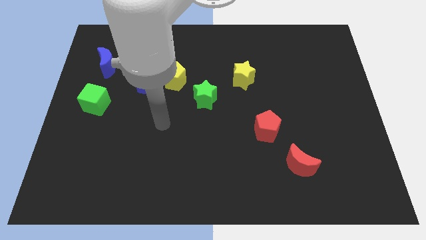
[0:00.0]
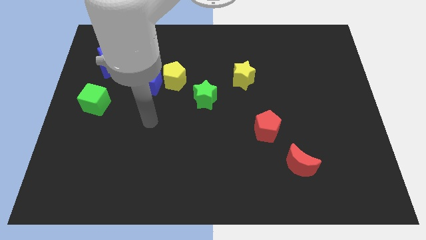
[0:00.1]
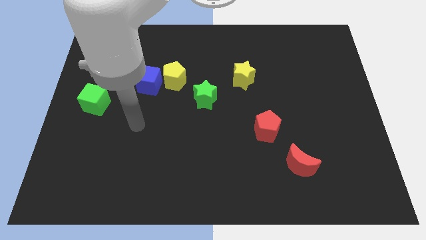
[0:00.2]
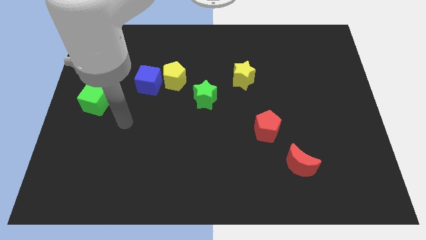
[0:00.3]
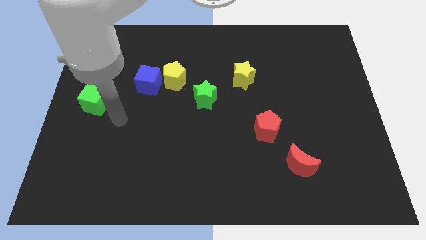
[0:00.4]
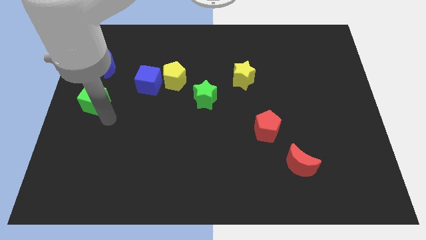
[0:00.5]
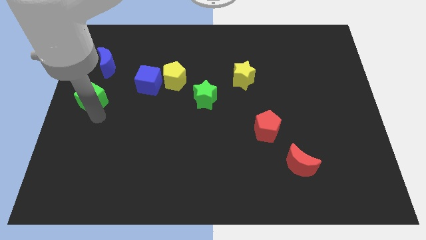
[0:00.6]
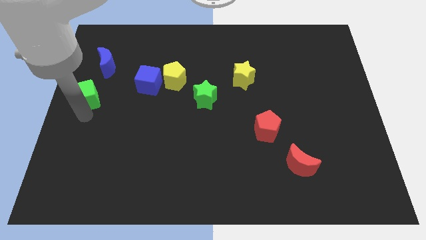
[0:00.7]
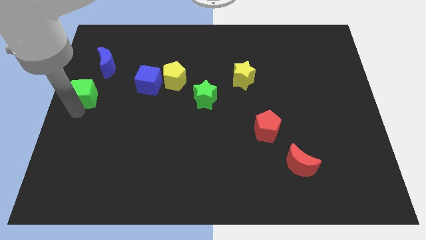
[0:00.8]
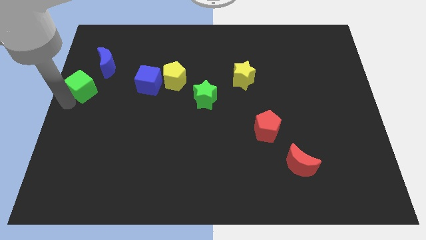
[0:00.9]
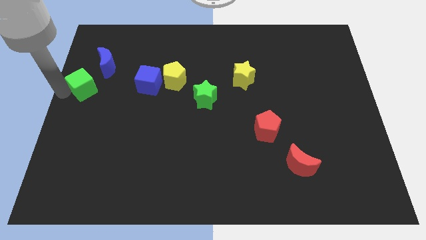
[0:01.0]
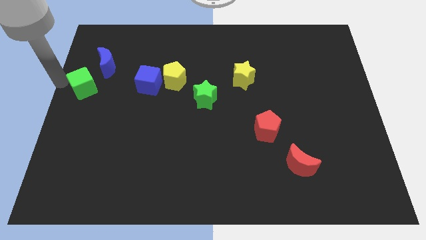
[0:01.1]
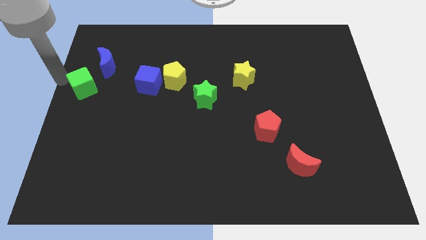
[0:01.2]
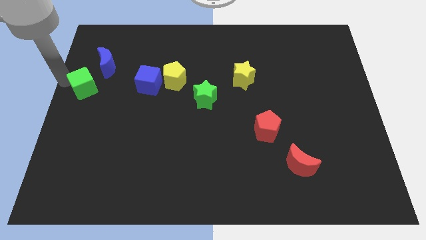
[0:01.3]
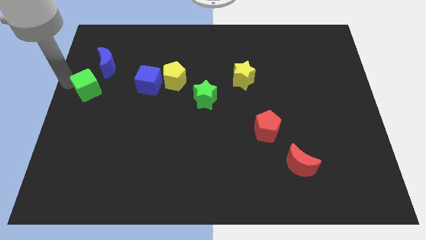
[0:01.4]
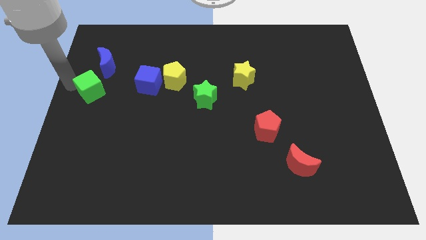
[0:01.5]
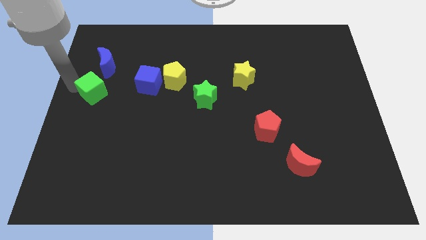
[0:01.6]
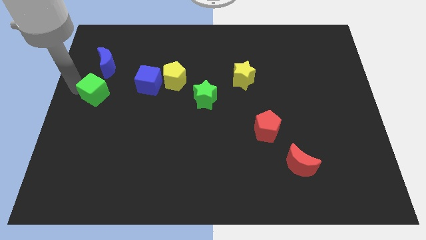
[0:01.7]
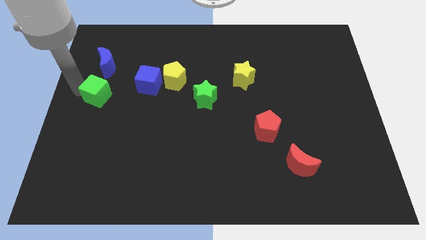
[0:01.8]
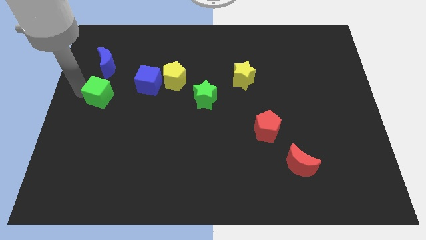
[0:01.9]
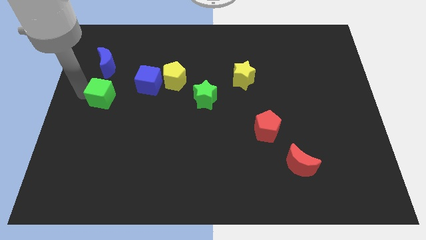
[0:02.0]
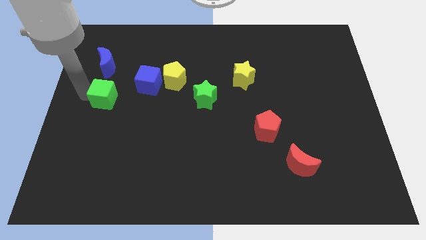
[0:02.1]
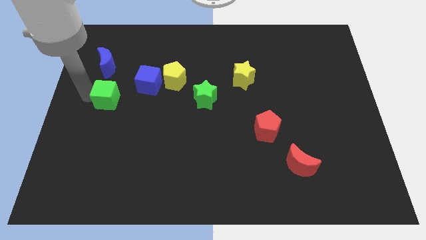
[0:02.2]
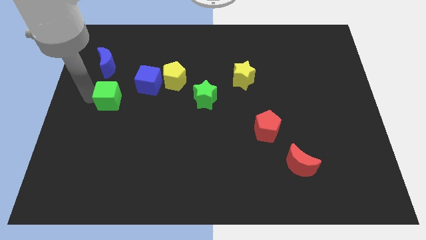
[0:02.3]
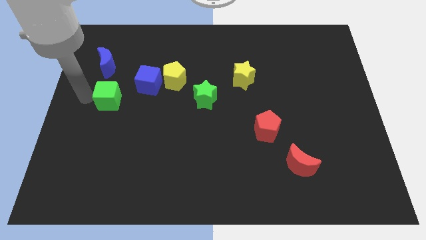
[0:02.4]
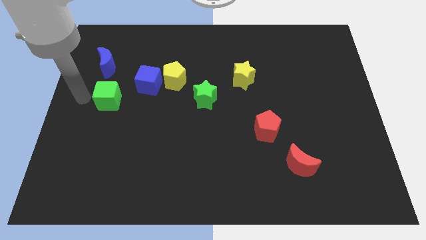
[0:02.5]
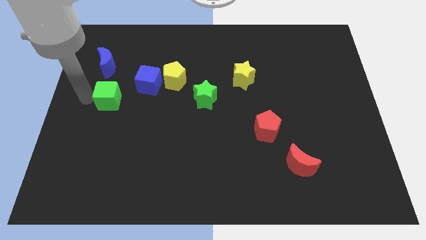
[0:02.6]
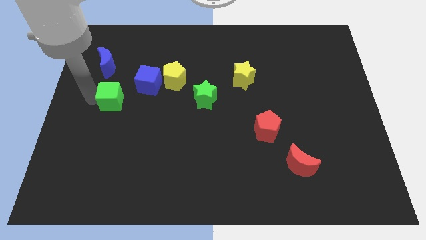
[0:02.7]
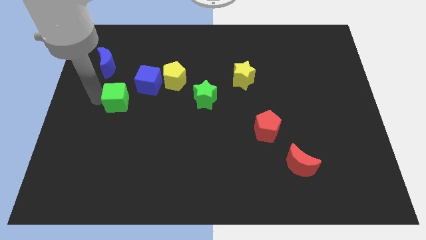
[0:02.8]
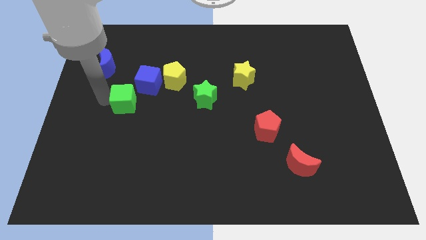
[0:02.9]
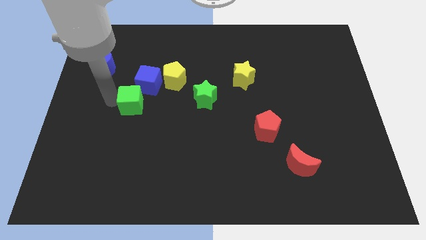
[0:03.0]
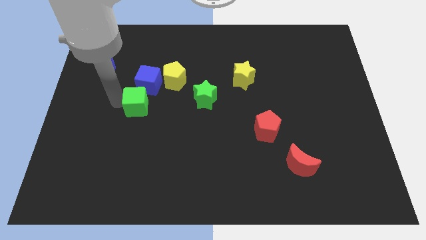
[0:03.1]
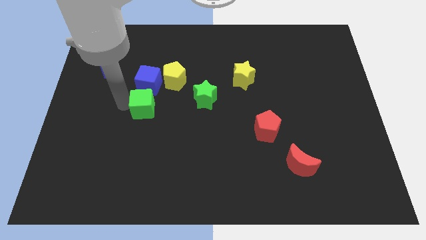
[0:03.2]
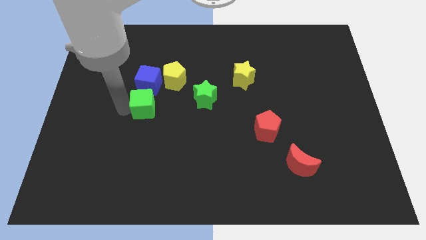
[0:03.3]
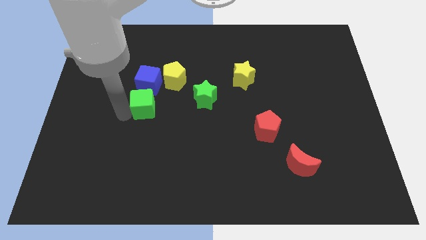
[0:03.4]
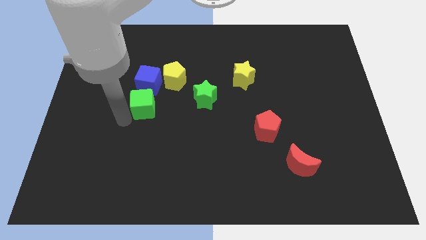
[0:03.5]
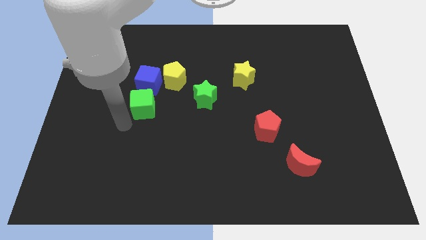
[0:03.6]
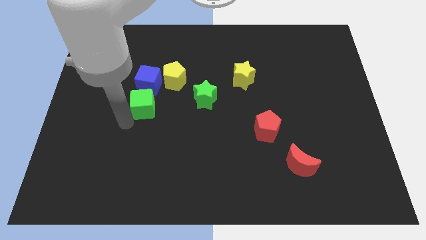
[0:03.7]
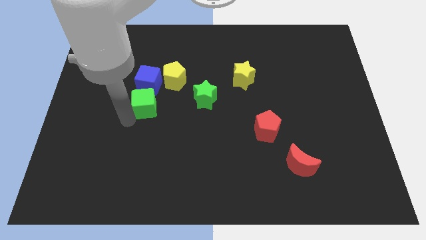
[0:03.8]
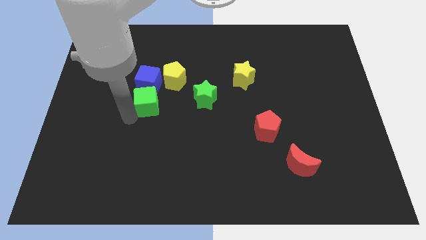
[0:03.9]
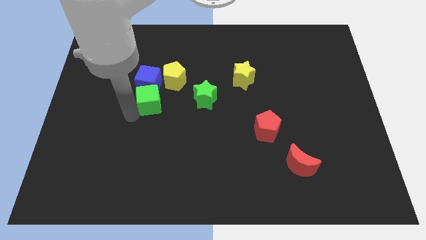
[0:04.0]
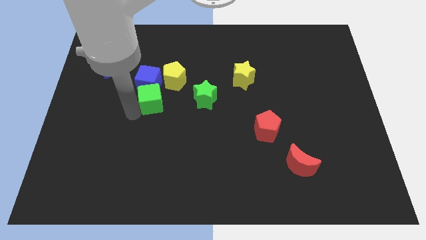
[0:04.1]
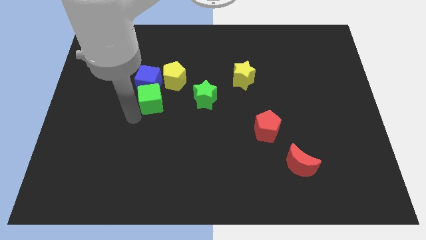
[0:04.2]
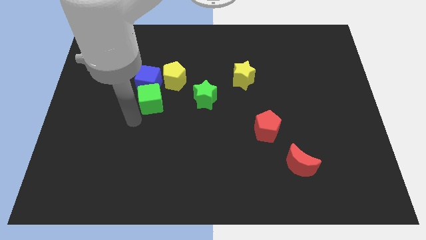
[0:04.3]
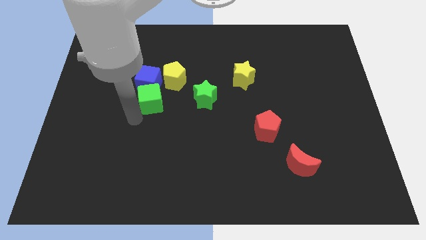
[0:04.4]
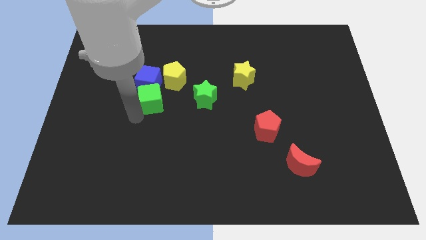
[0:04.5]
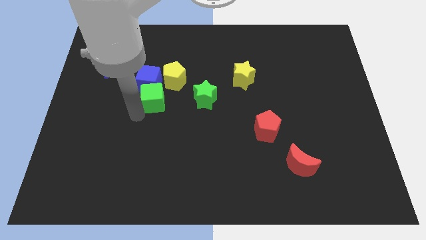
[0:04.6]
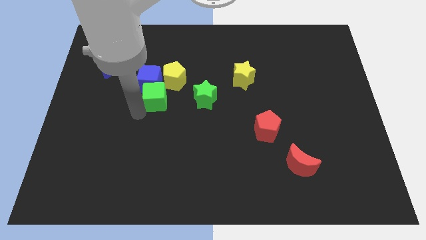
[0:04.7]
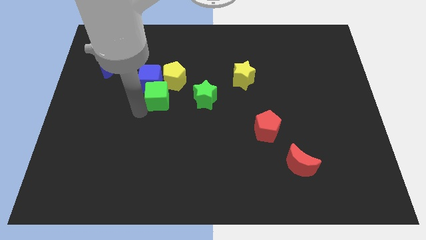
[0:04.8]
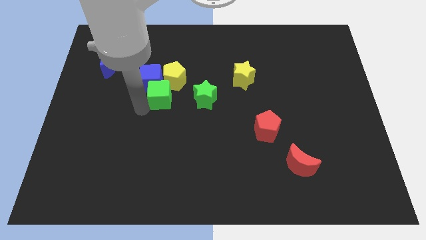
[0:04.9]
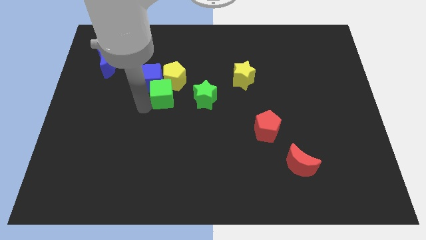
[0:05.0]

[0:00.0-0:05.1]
push the green cube to the yellow pentagon

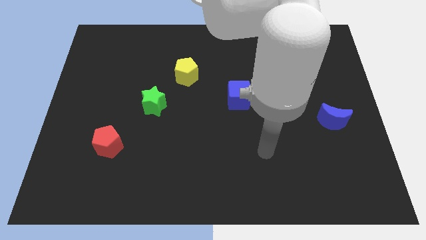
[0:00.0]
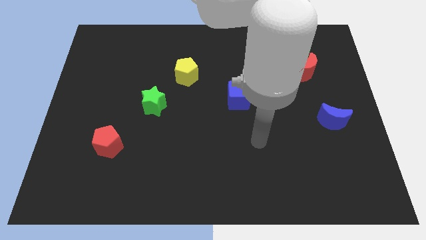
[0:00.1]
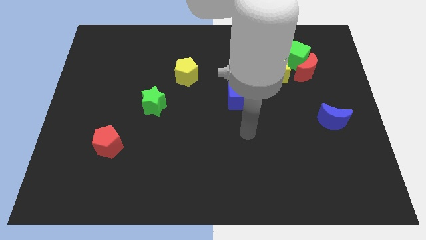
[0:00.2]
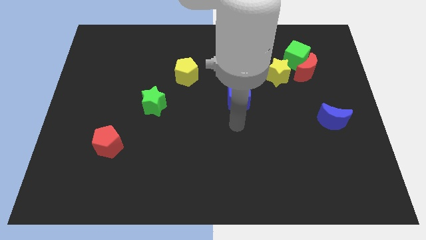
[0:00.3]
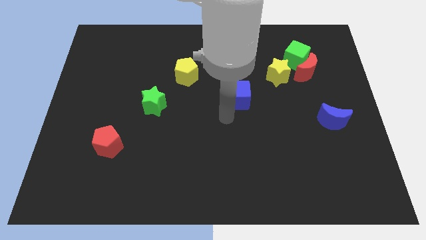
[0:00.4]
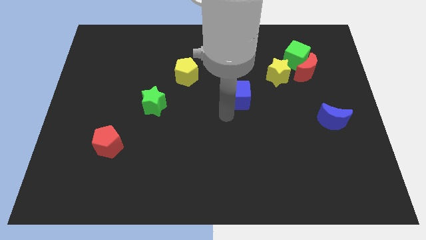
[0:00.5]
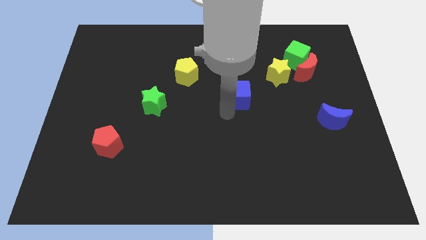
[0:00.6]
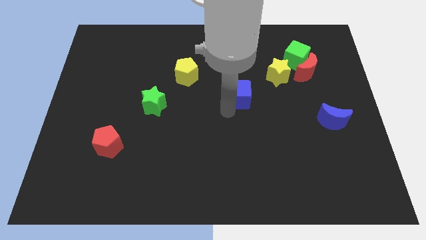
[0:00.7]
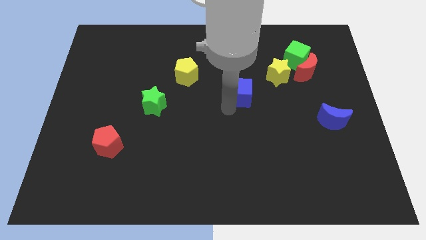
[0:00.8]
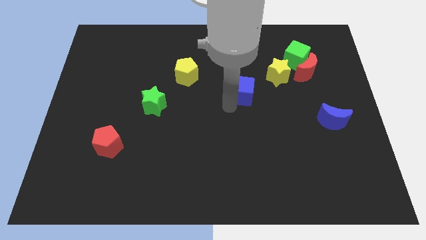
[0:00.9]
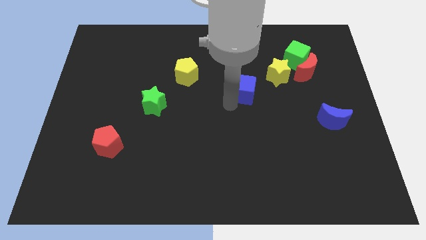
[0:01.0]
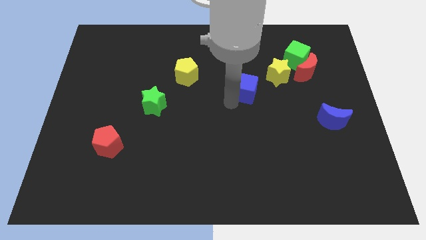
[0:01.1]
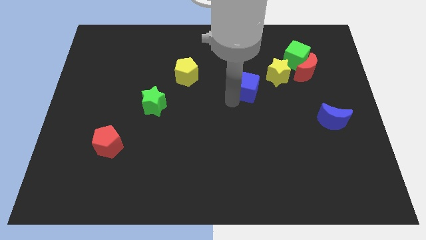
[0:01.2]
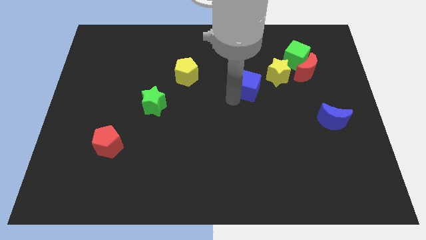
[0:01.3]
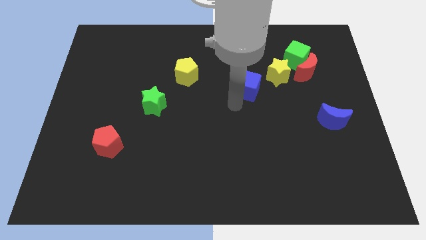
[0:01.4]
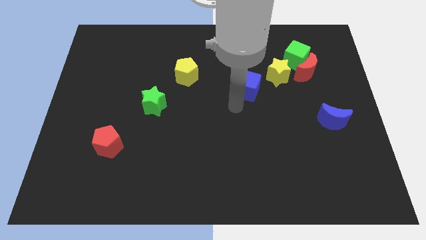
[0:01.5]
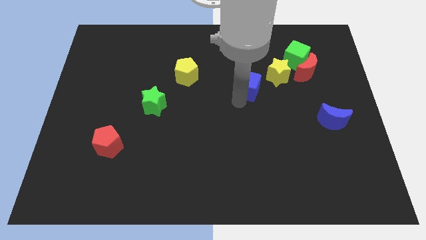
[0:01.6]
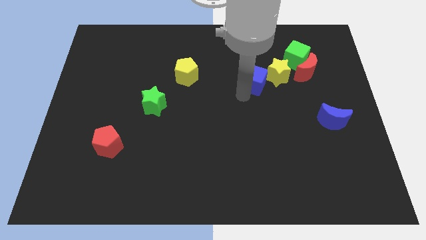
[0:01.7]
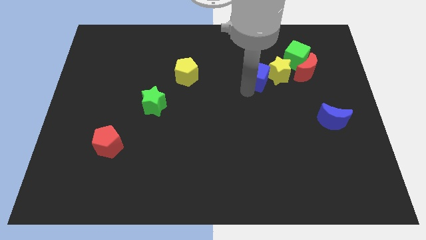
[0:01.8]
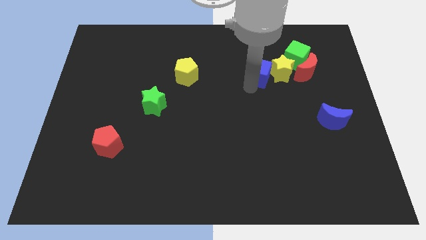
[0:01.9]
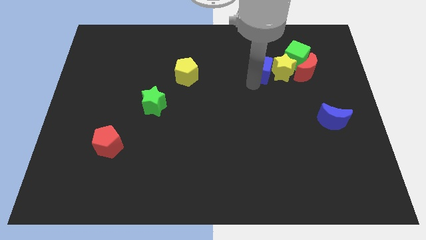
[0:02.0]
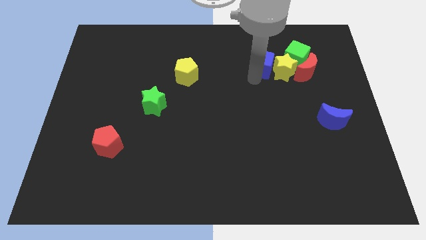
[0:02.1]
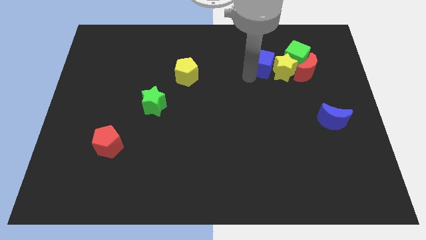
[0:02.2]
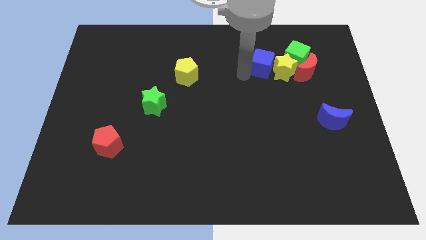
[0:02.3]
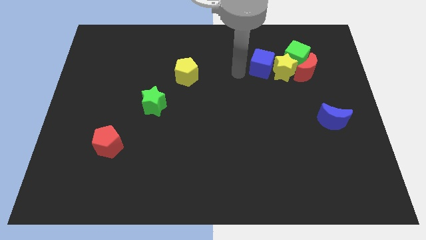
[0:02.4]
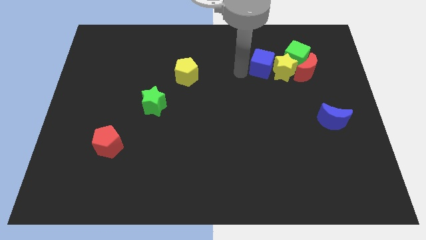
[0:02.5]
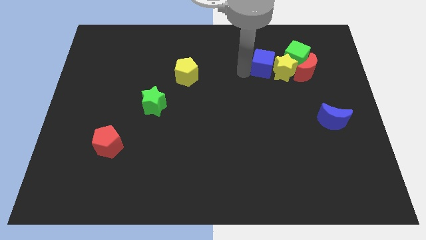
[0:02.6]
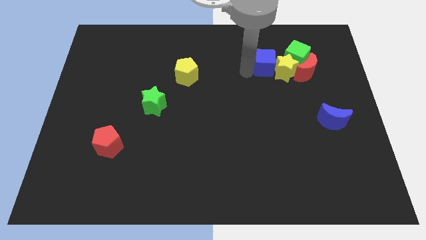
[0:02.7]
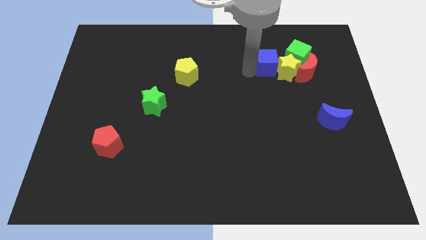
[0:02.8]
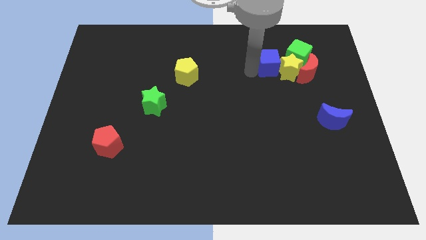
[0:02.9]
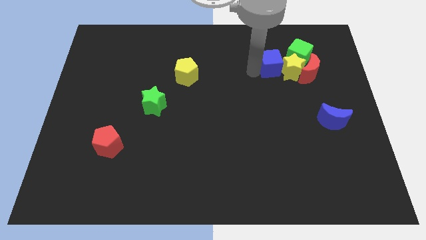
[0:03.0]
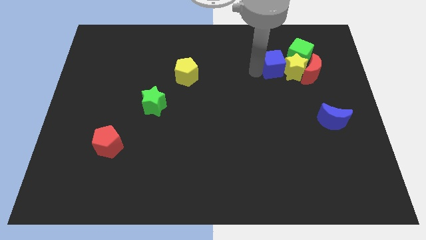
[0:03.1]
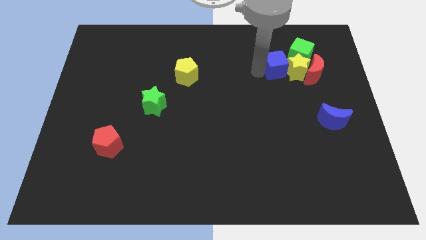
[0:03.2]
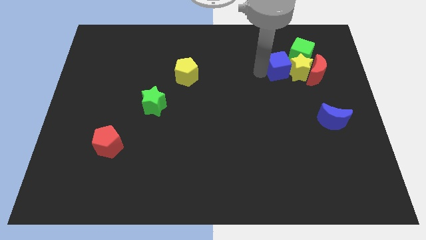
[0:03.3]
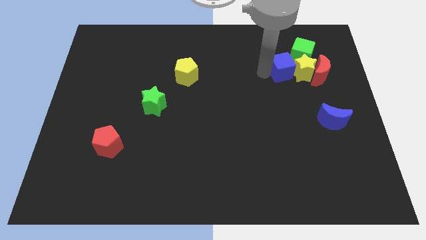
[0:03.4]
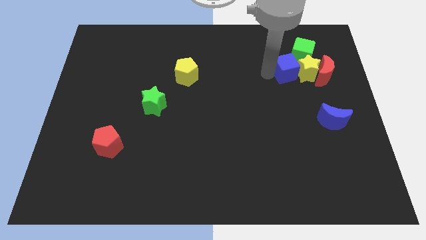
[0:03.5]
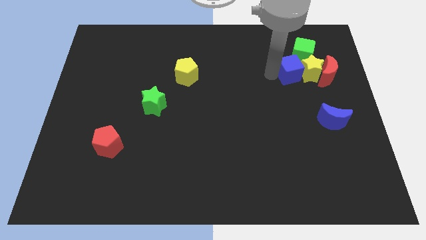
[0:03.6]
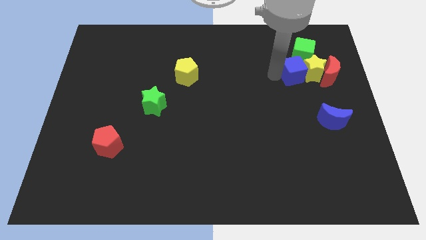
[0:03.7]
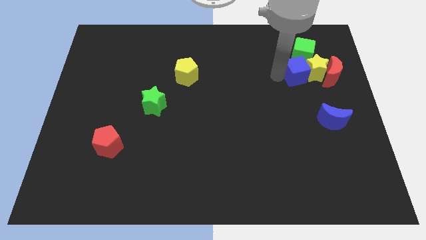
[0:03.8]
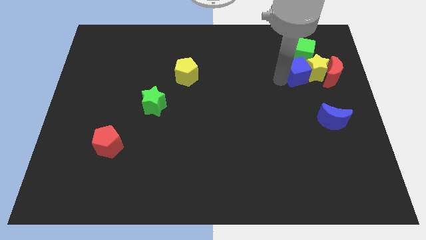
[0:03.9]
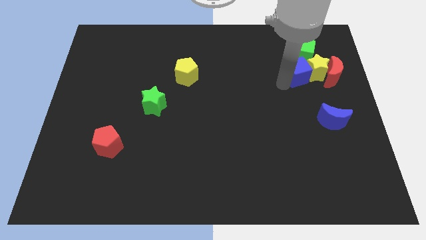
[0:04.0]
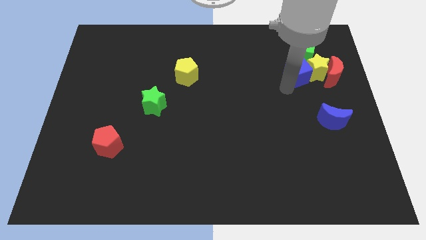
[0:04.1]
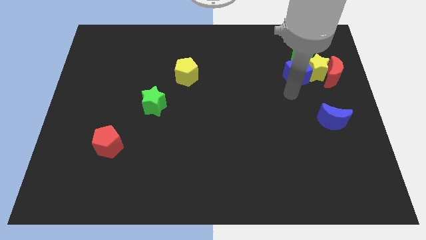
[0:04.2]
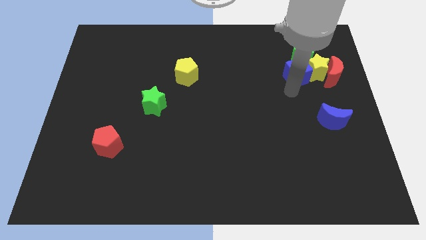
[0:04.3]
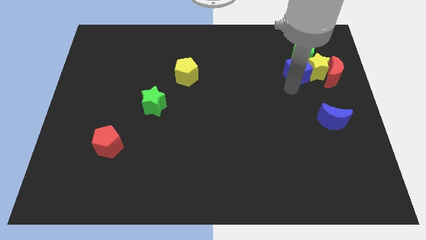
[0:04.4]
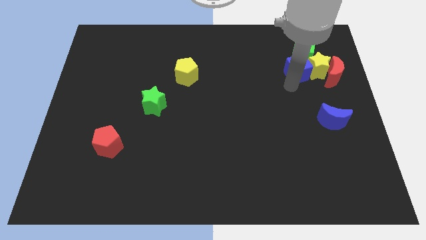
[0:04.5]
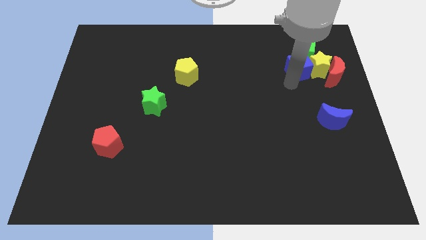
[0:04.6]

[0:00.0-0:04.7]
push the blue cube next to the green cube
